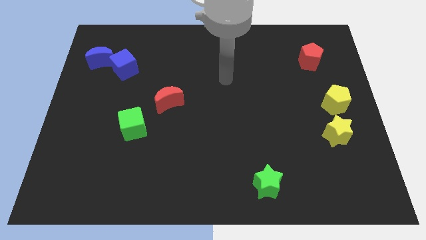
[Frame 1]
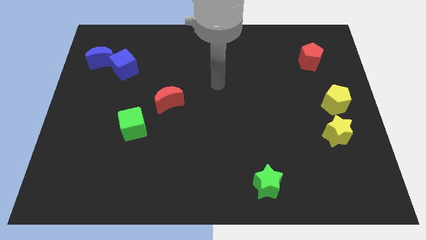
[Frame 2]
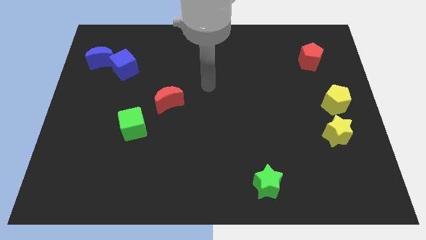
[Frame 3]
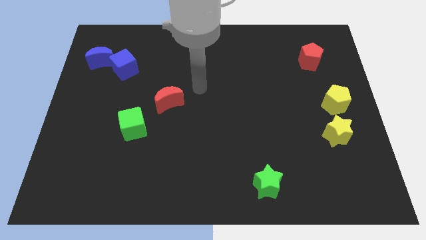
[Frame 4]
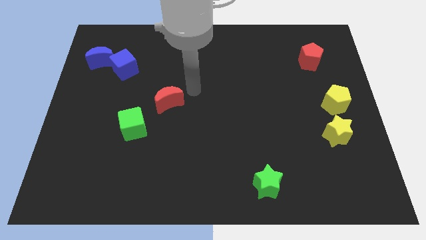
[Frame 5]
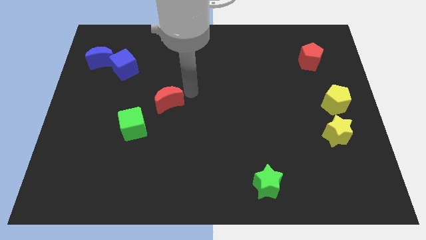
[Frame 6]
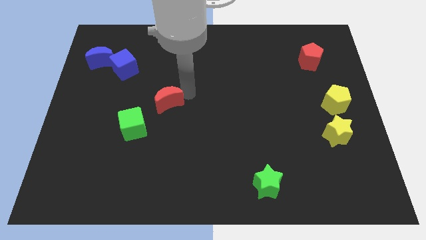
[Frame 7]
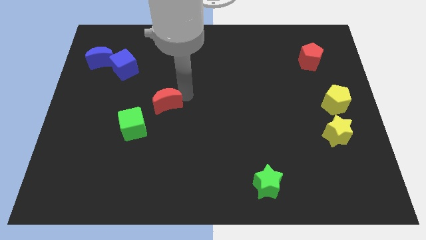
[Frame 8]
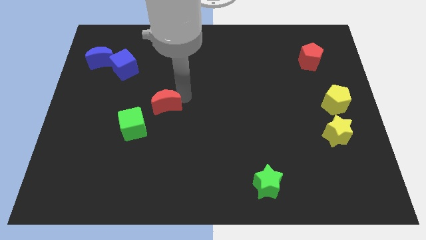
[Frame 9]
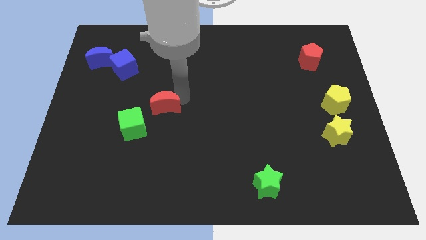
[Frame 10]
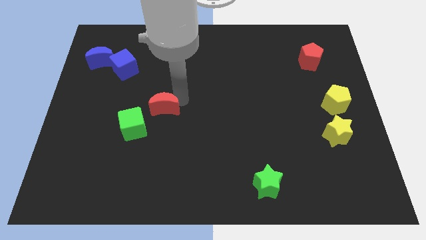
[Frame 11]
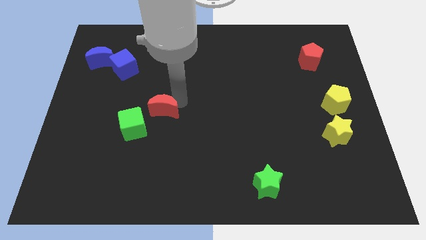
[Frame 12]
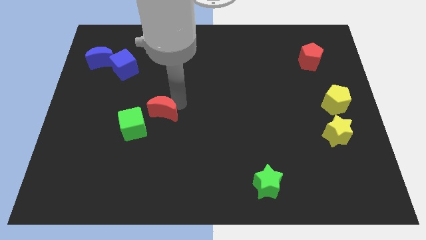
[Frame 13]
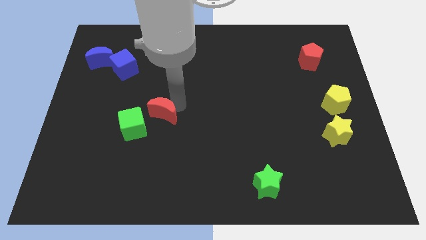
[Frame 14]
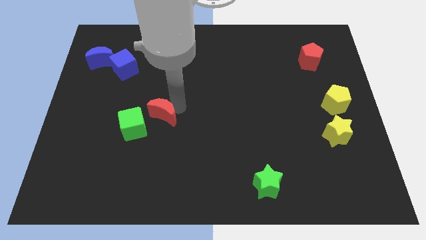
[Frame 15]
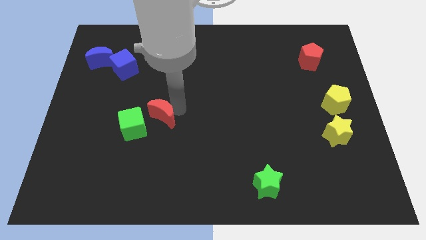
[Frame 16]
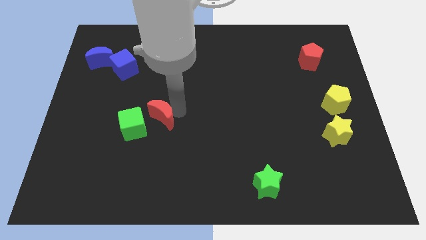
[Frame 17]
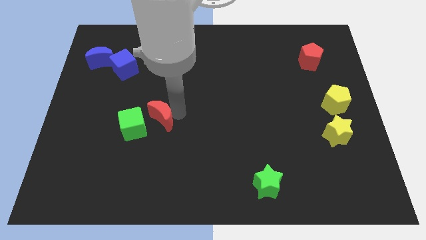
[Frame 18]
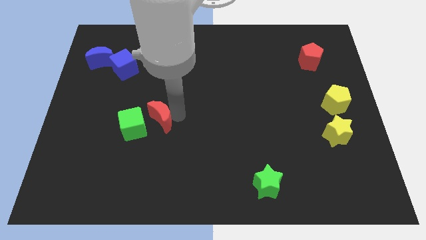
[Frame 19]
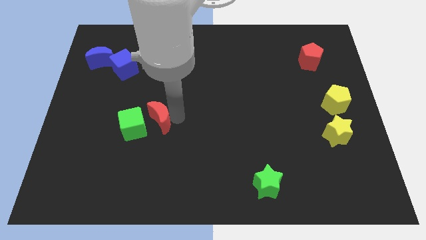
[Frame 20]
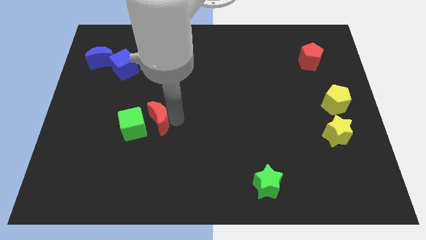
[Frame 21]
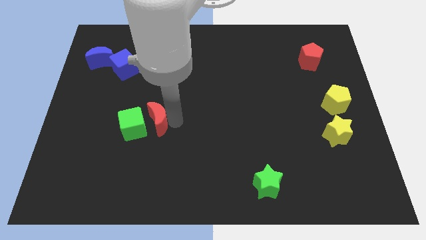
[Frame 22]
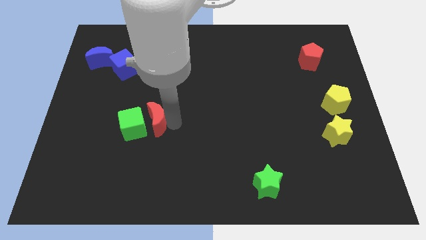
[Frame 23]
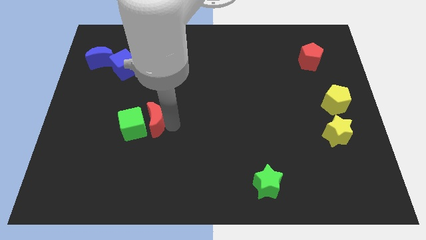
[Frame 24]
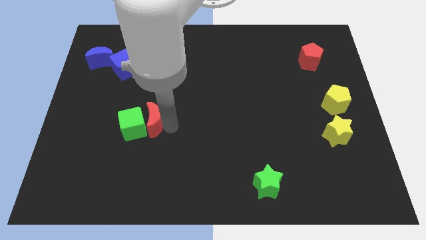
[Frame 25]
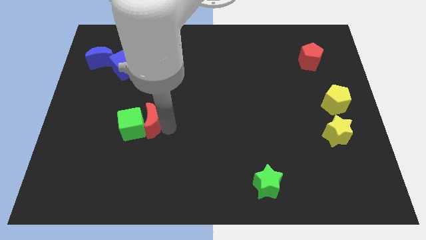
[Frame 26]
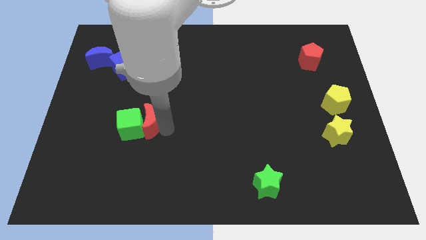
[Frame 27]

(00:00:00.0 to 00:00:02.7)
push the red moon down and to the left diagonally a bit

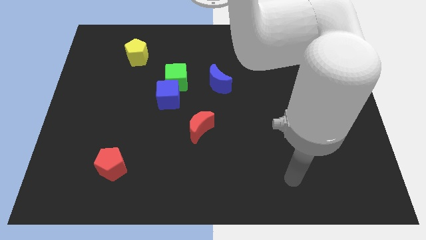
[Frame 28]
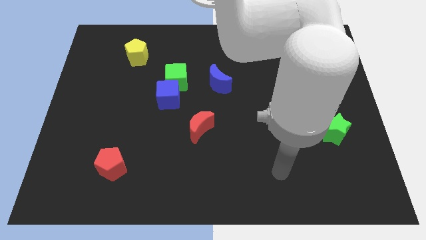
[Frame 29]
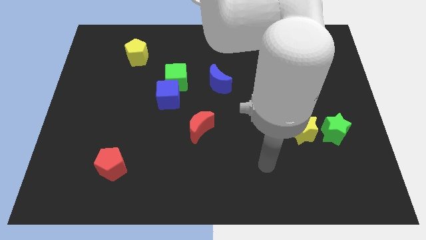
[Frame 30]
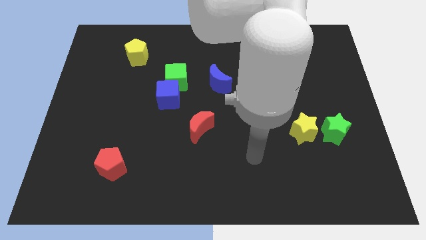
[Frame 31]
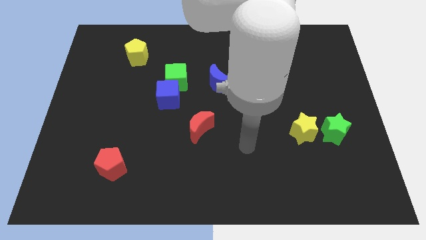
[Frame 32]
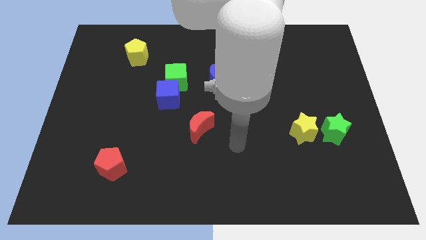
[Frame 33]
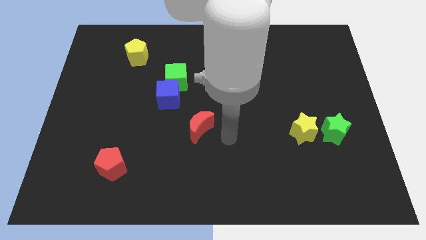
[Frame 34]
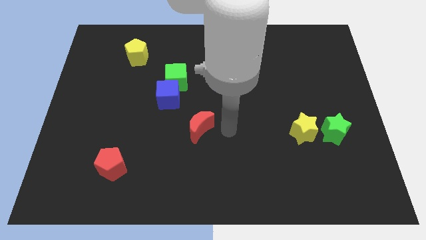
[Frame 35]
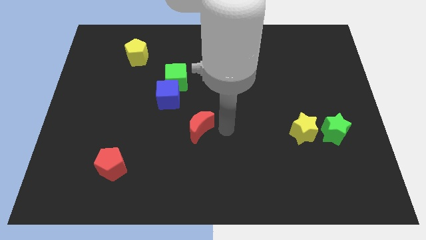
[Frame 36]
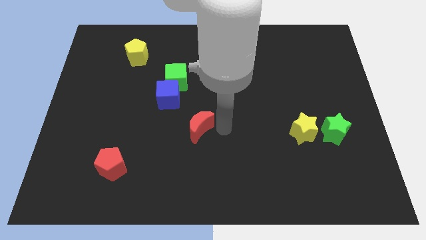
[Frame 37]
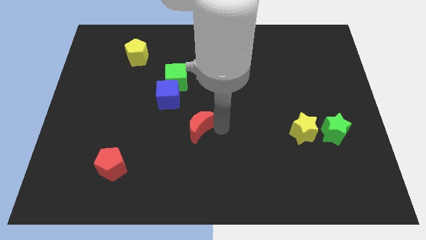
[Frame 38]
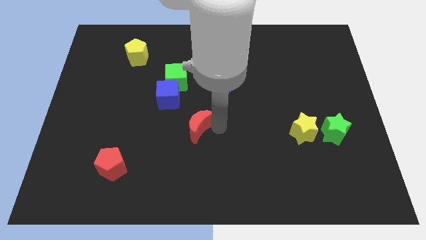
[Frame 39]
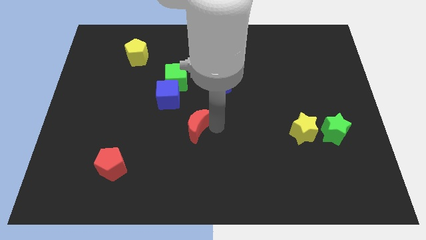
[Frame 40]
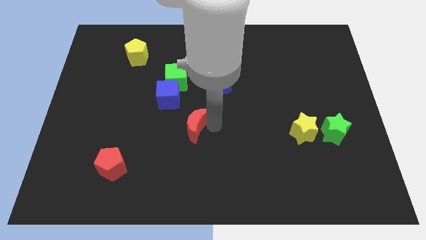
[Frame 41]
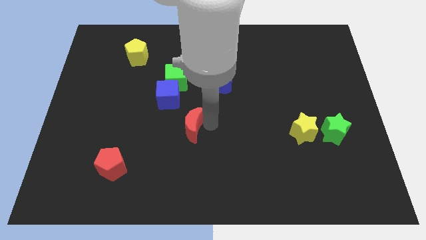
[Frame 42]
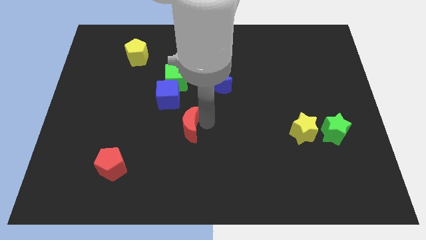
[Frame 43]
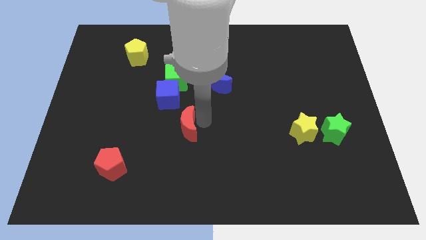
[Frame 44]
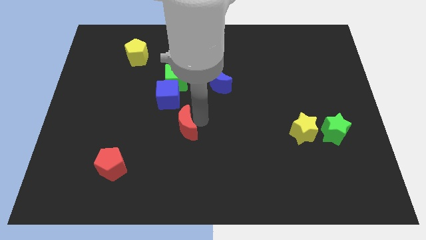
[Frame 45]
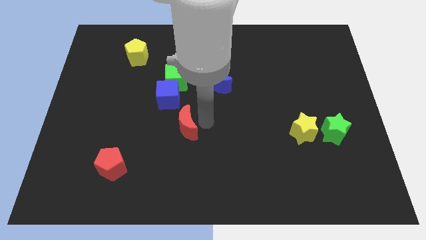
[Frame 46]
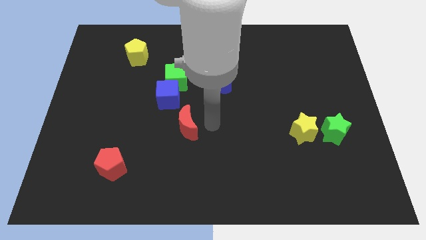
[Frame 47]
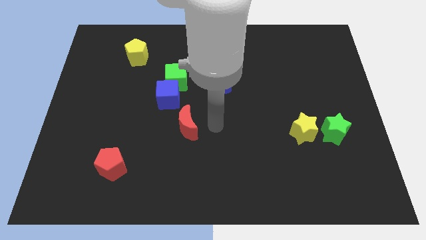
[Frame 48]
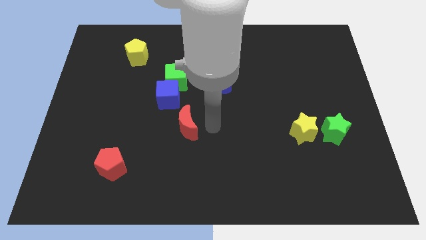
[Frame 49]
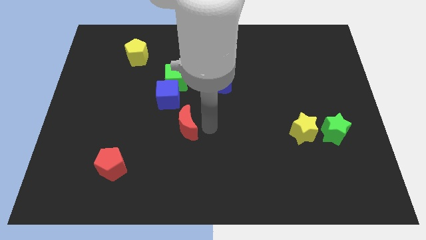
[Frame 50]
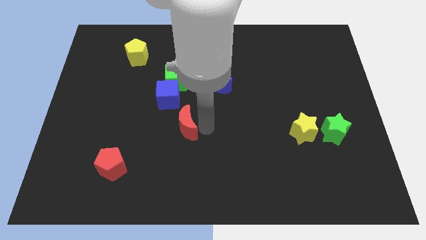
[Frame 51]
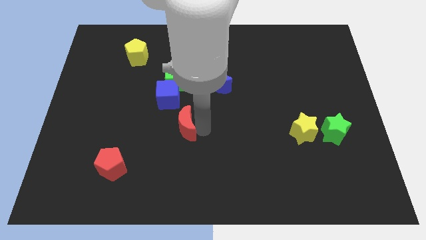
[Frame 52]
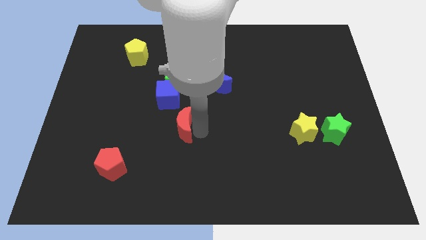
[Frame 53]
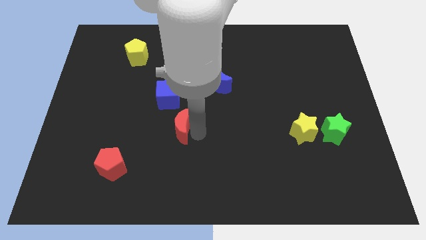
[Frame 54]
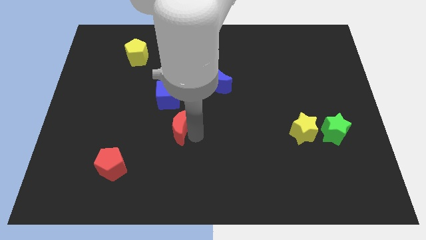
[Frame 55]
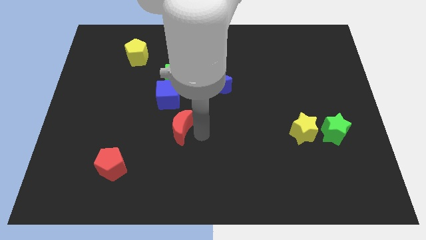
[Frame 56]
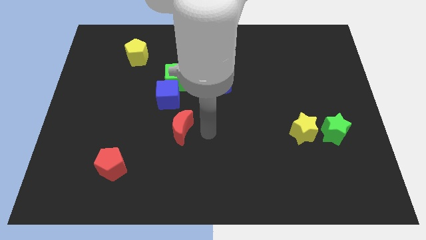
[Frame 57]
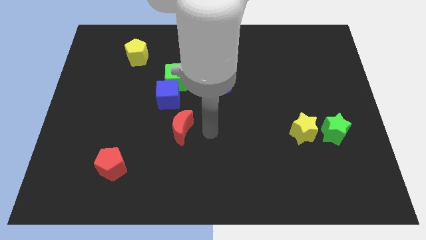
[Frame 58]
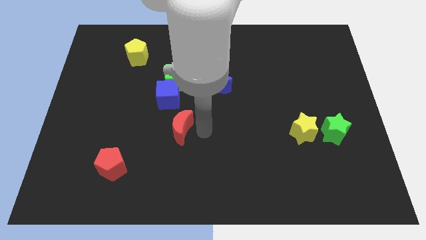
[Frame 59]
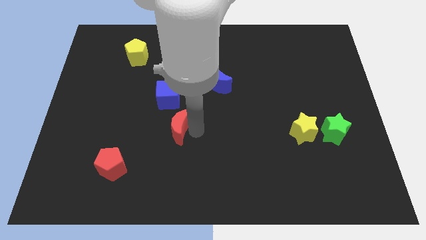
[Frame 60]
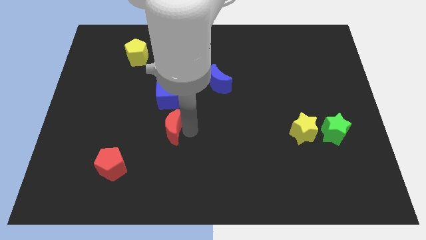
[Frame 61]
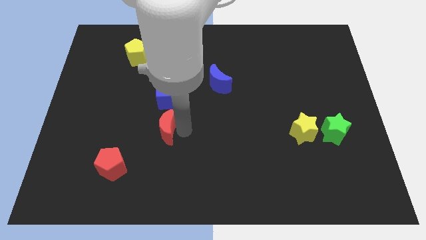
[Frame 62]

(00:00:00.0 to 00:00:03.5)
slightly move the red moon left

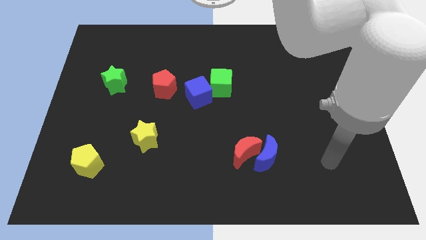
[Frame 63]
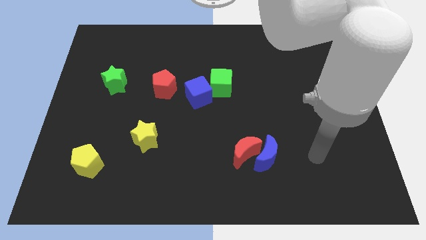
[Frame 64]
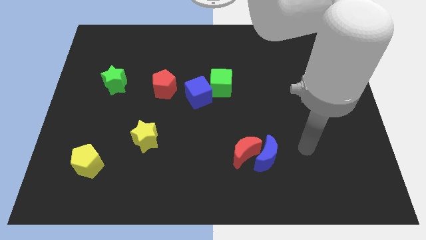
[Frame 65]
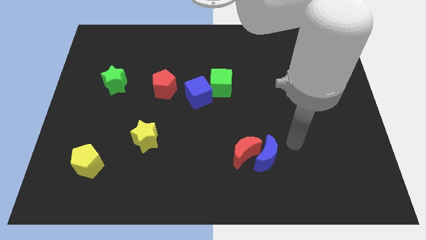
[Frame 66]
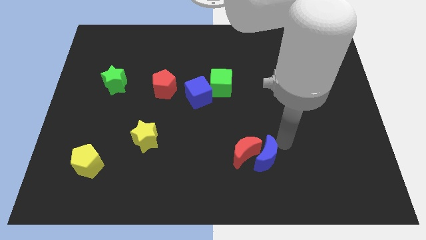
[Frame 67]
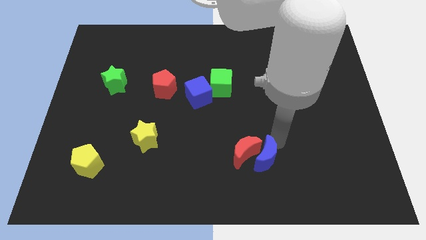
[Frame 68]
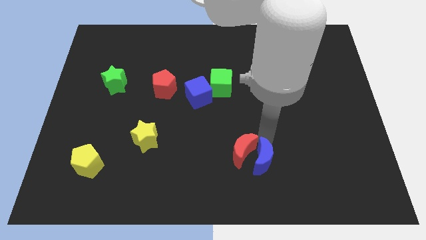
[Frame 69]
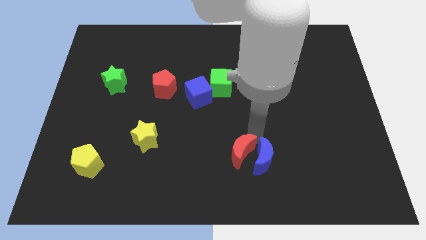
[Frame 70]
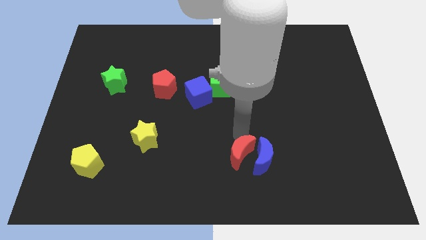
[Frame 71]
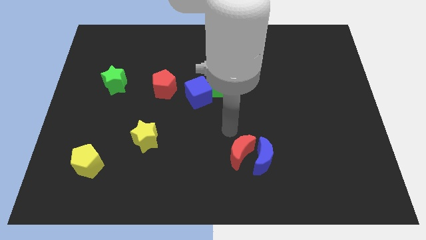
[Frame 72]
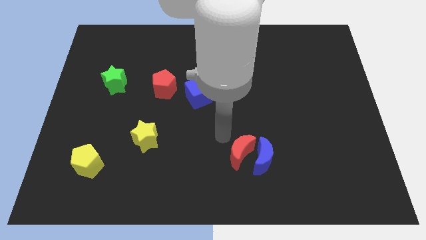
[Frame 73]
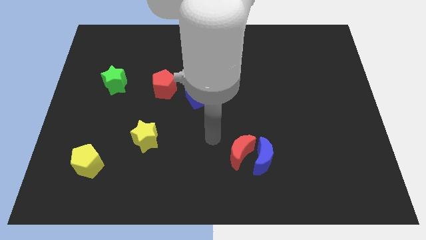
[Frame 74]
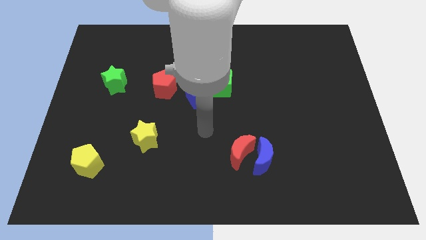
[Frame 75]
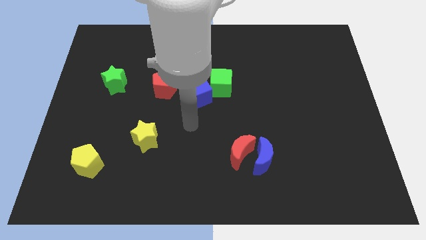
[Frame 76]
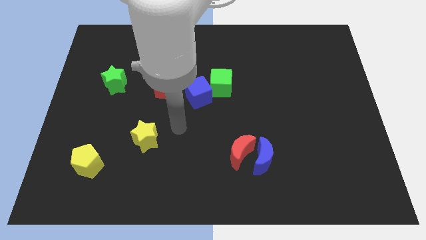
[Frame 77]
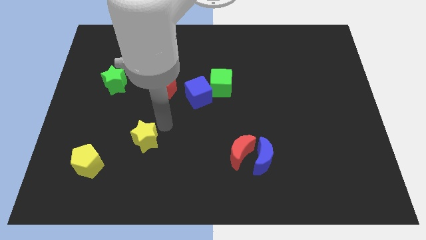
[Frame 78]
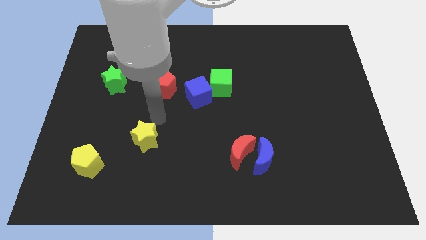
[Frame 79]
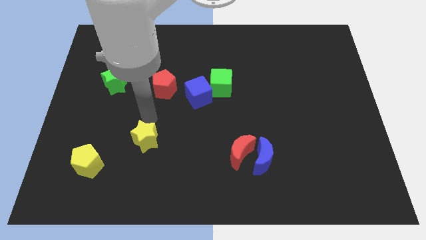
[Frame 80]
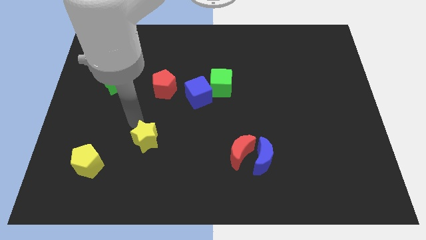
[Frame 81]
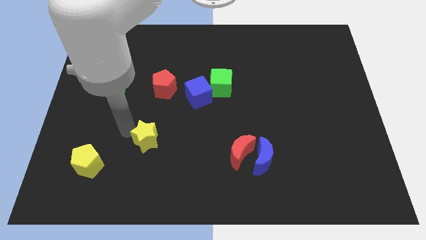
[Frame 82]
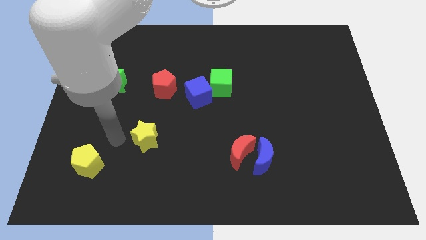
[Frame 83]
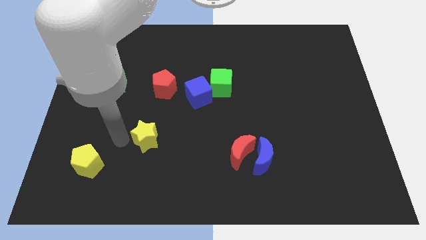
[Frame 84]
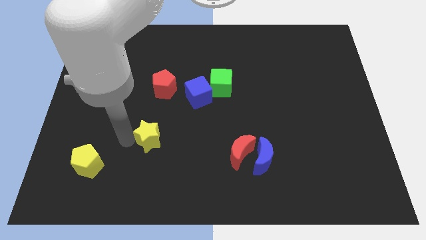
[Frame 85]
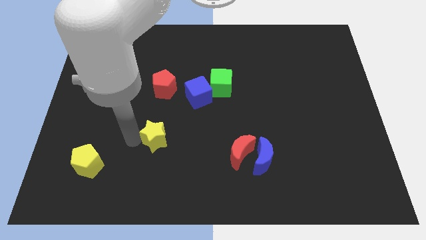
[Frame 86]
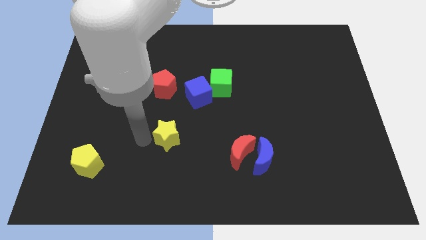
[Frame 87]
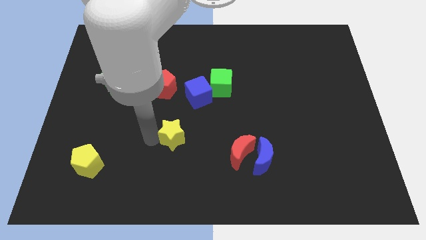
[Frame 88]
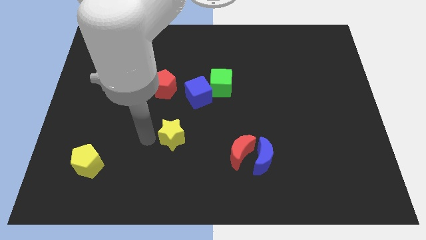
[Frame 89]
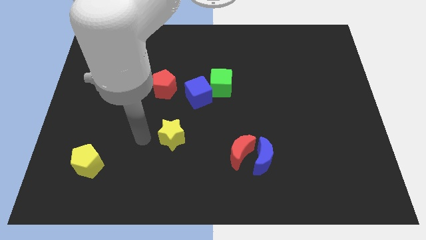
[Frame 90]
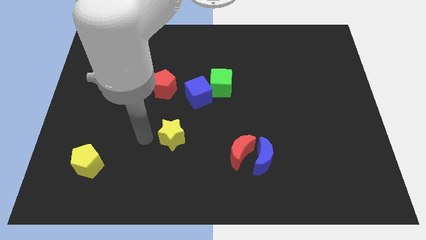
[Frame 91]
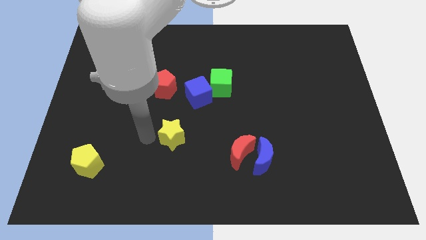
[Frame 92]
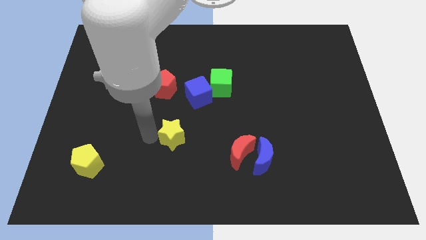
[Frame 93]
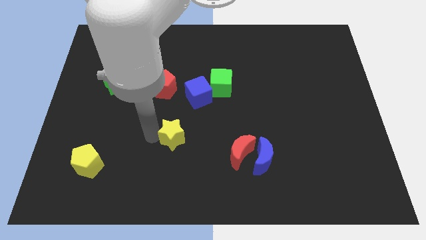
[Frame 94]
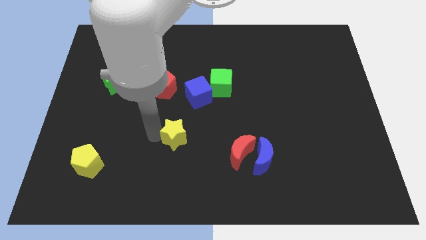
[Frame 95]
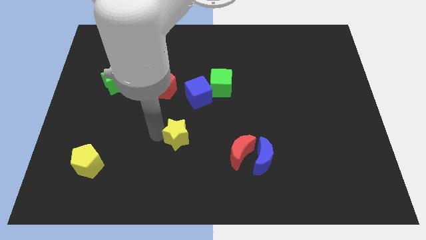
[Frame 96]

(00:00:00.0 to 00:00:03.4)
slide the yellow star somewhat to the right
